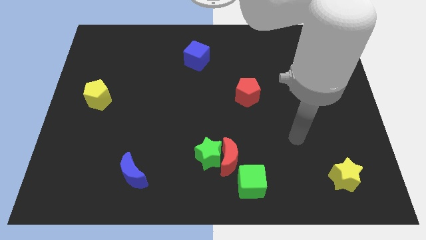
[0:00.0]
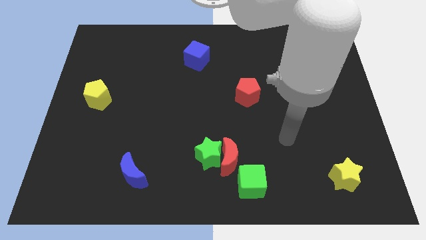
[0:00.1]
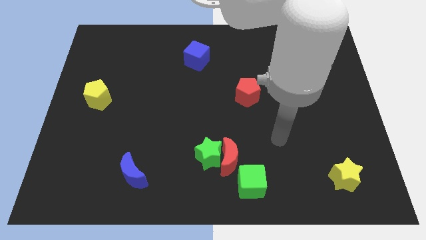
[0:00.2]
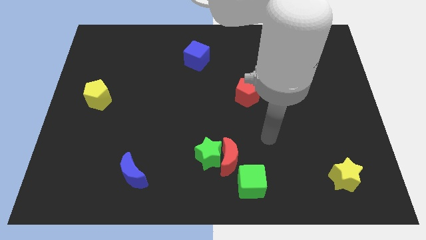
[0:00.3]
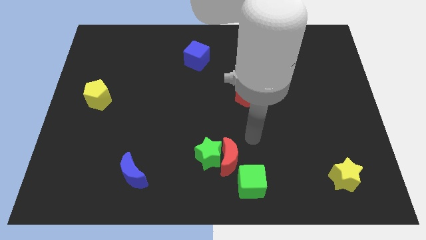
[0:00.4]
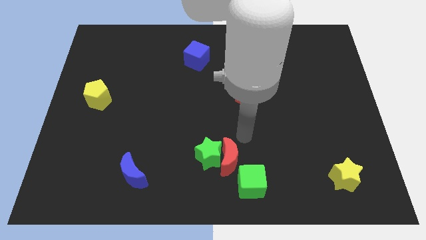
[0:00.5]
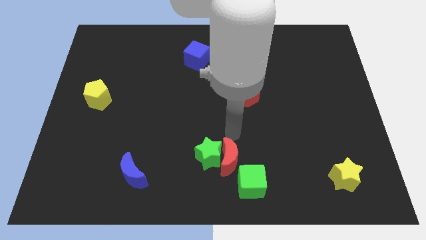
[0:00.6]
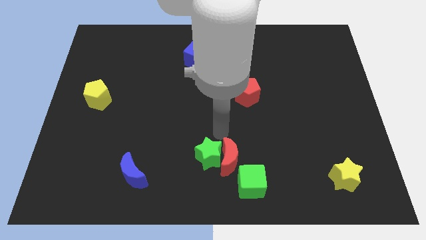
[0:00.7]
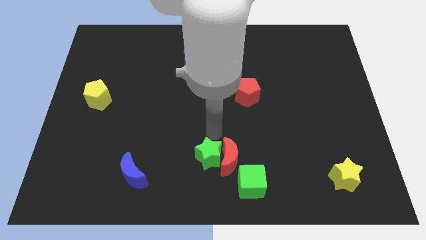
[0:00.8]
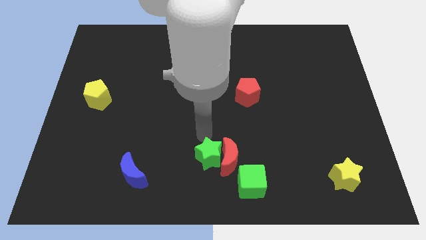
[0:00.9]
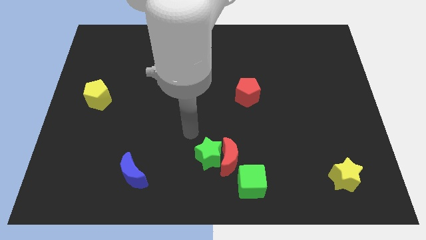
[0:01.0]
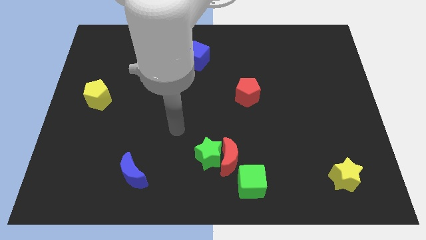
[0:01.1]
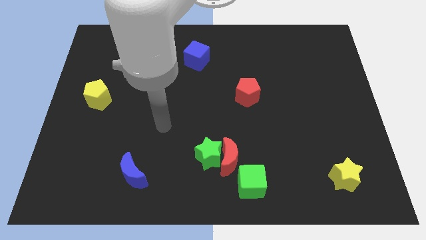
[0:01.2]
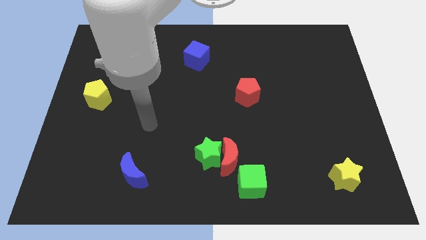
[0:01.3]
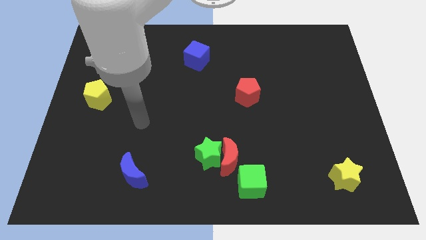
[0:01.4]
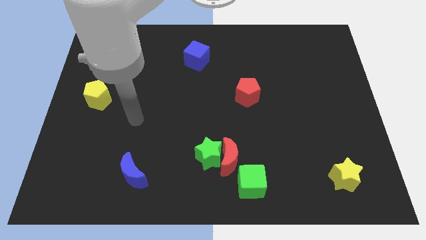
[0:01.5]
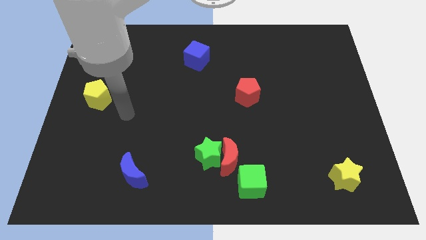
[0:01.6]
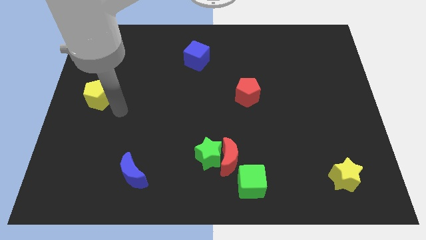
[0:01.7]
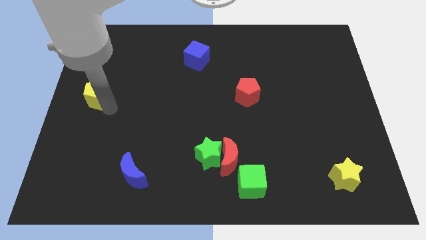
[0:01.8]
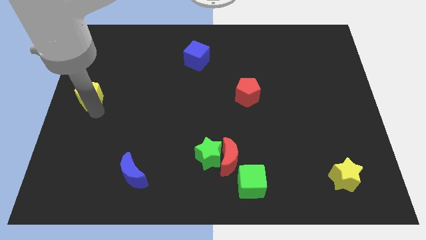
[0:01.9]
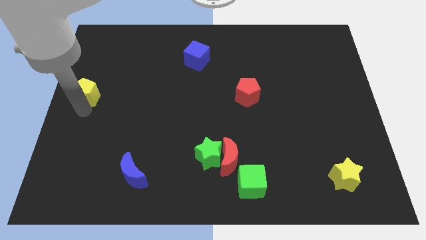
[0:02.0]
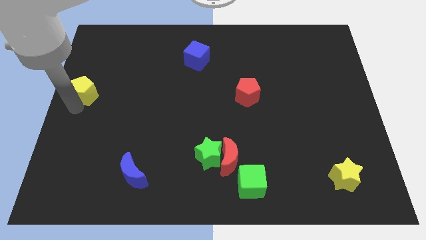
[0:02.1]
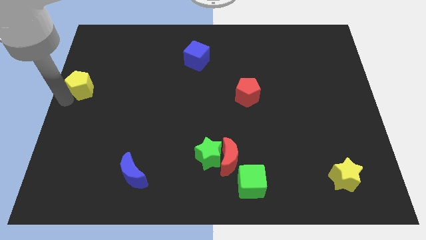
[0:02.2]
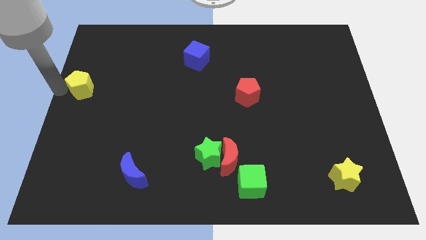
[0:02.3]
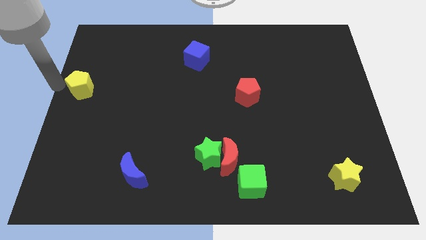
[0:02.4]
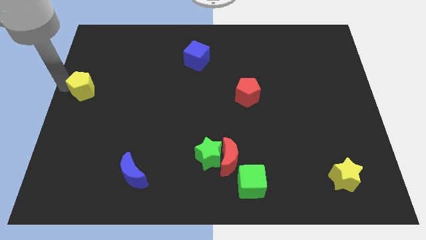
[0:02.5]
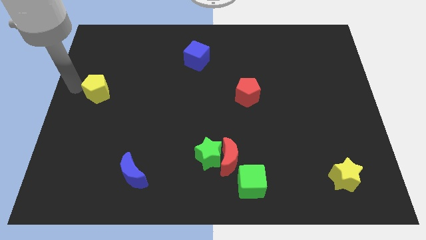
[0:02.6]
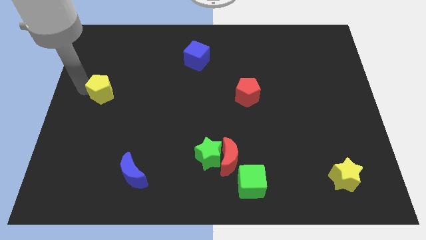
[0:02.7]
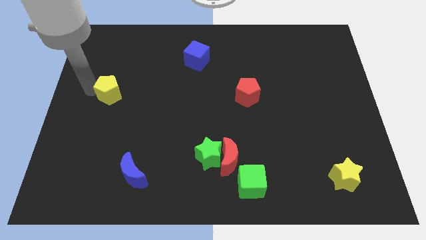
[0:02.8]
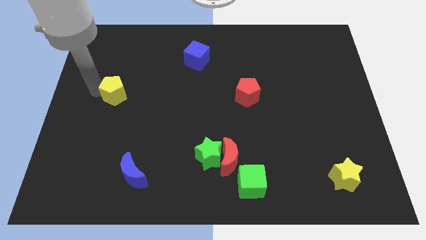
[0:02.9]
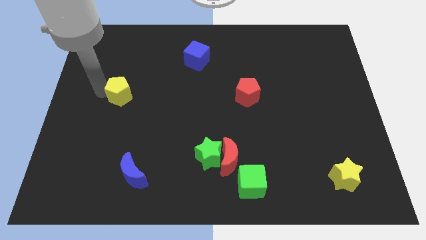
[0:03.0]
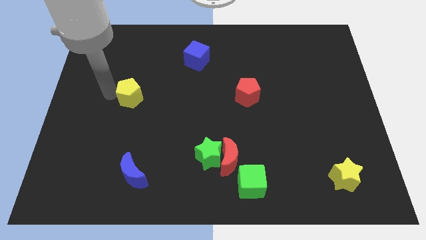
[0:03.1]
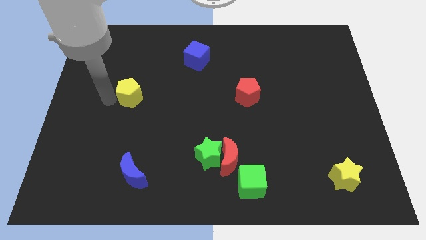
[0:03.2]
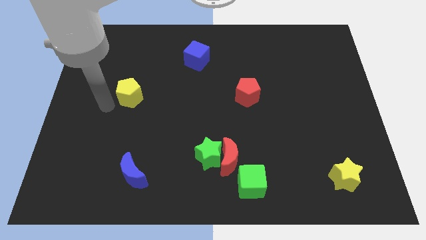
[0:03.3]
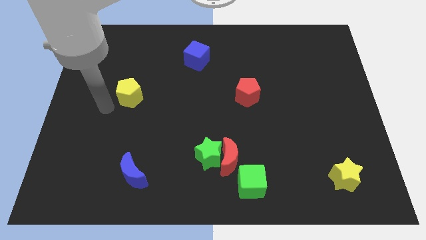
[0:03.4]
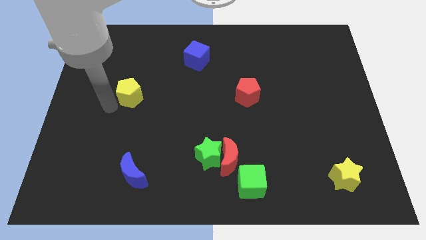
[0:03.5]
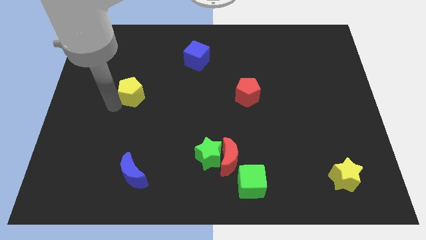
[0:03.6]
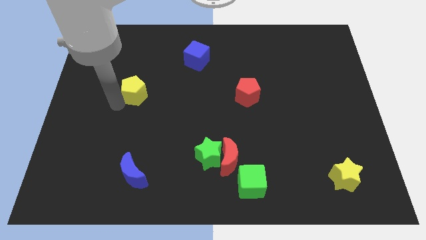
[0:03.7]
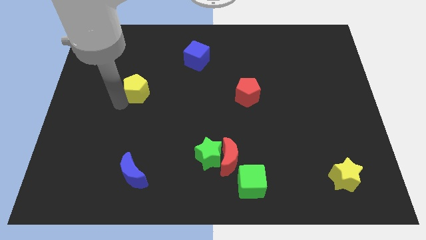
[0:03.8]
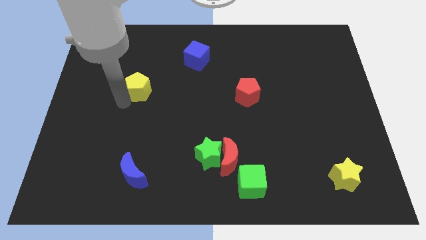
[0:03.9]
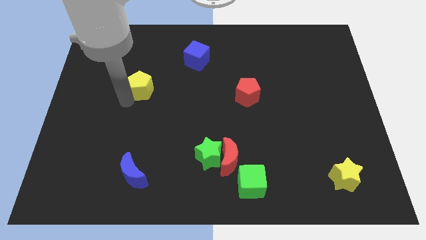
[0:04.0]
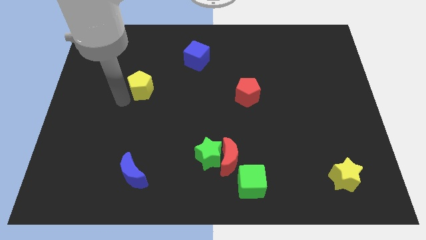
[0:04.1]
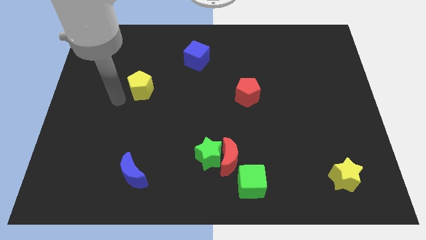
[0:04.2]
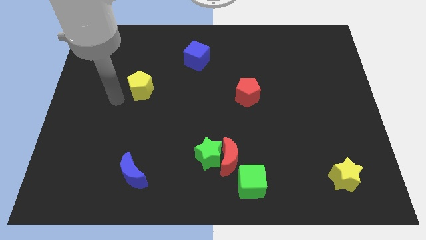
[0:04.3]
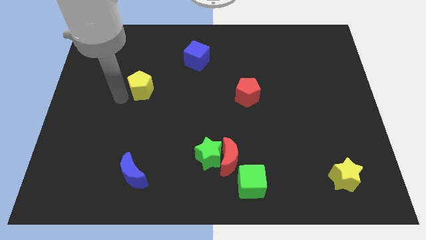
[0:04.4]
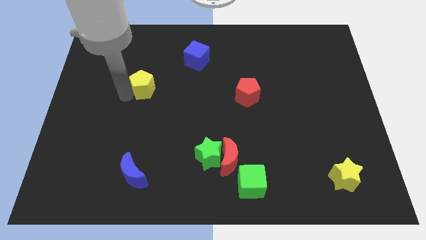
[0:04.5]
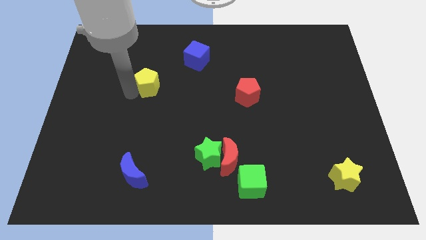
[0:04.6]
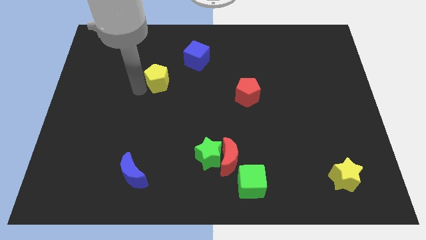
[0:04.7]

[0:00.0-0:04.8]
move the yellow pentagon to the bottom left side of the blue cube

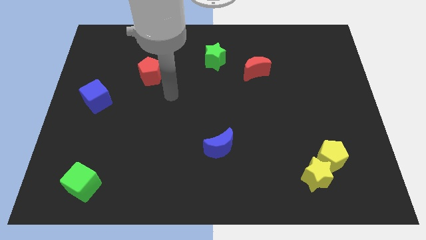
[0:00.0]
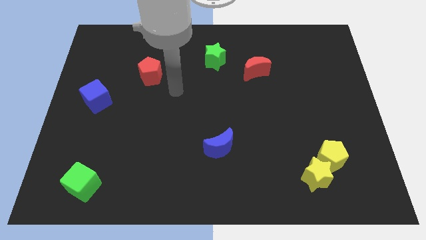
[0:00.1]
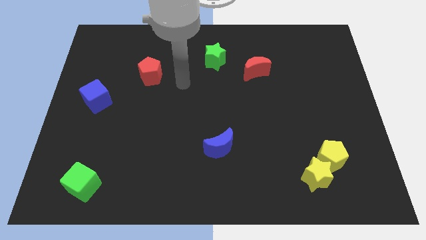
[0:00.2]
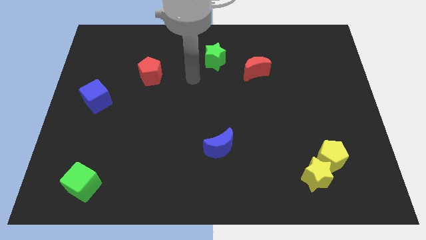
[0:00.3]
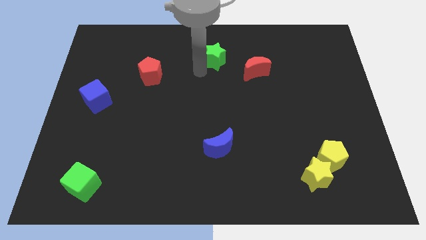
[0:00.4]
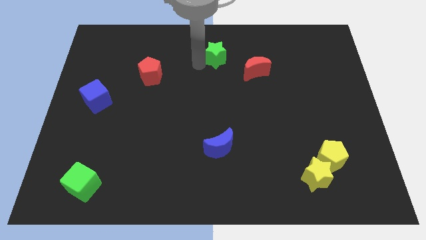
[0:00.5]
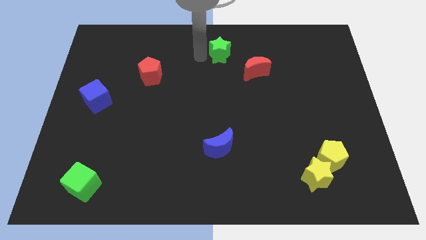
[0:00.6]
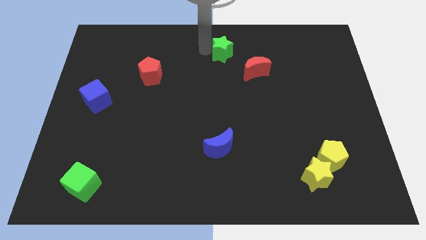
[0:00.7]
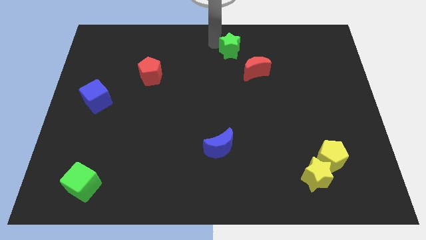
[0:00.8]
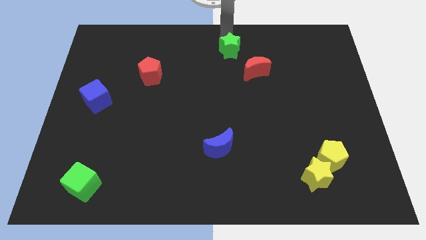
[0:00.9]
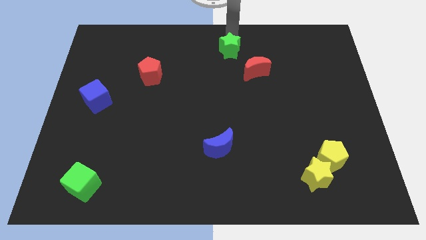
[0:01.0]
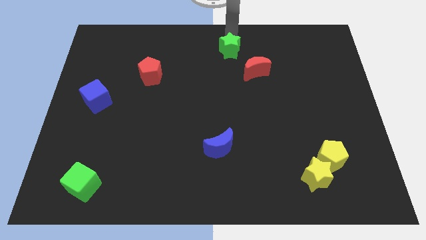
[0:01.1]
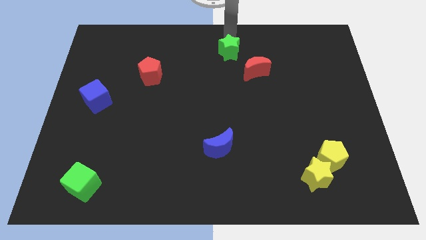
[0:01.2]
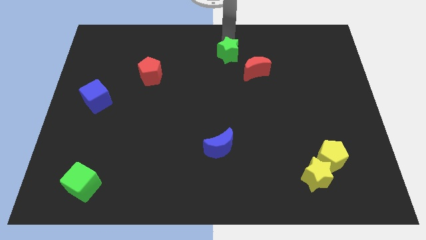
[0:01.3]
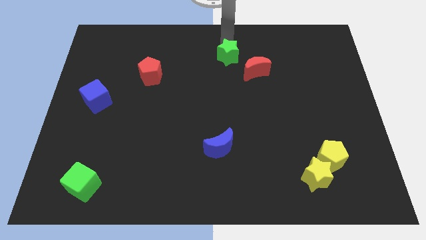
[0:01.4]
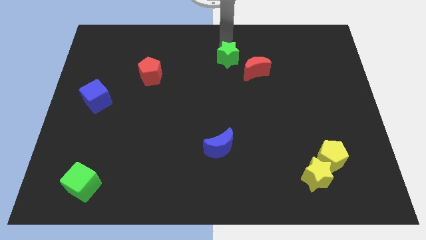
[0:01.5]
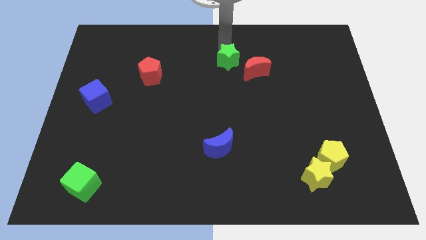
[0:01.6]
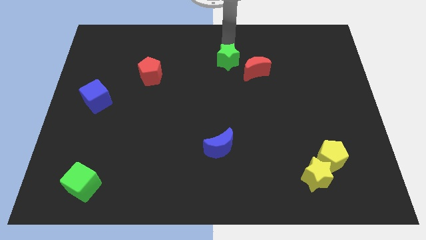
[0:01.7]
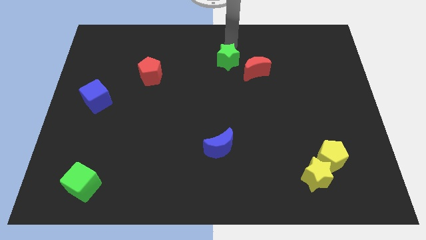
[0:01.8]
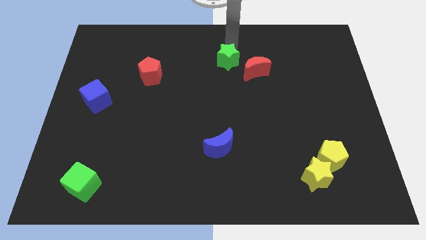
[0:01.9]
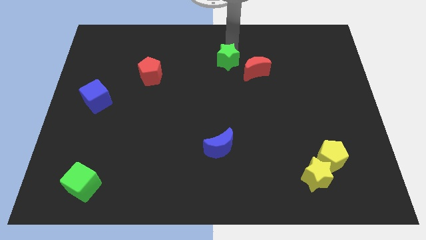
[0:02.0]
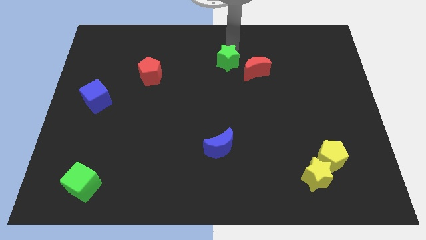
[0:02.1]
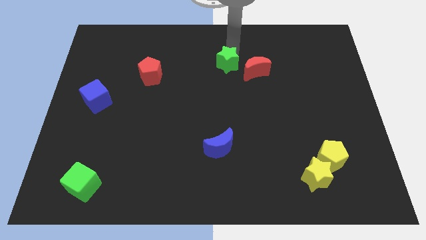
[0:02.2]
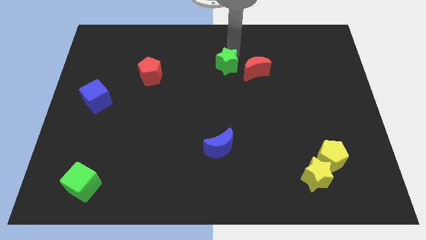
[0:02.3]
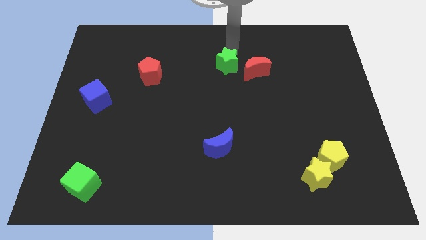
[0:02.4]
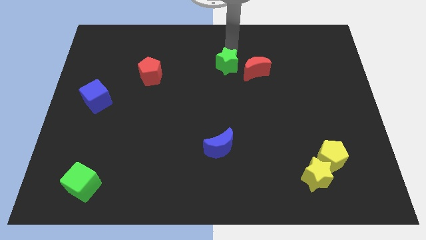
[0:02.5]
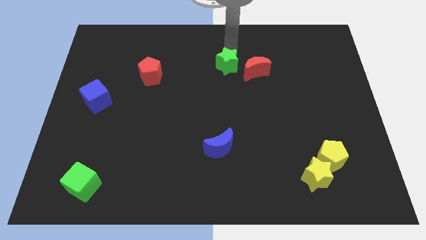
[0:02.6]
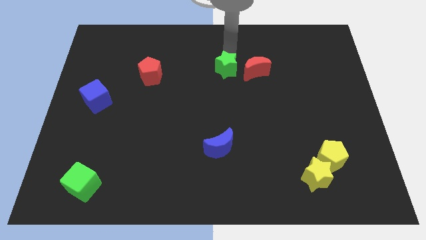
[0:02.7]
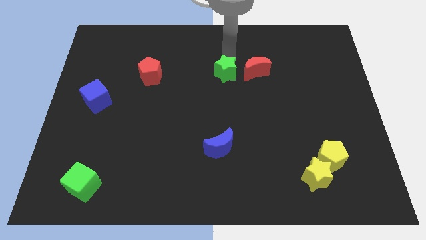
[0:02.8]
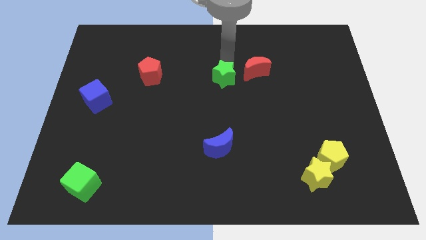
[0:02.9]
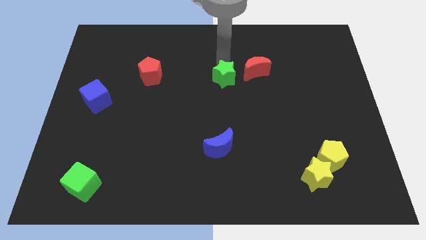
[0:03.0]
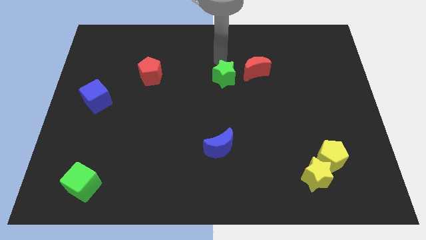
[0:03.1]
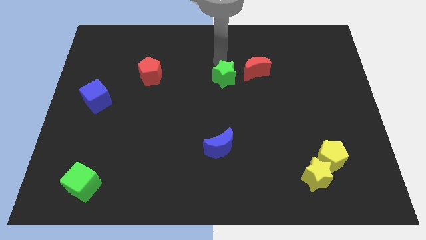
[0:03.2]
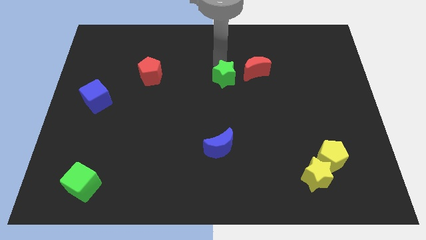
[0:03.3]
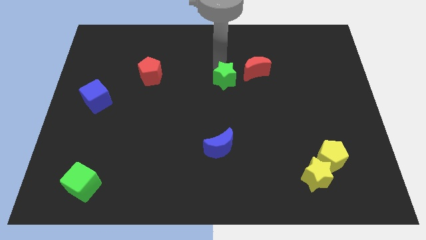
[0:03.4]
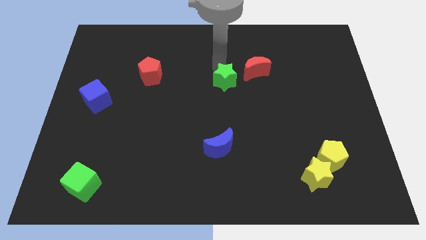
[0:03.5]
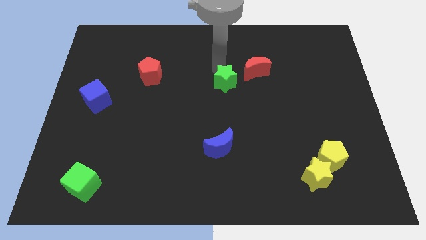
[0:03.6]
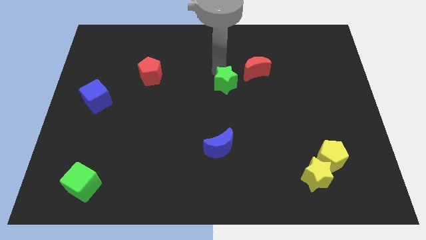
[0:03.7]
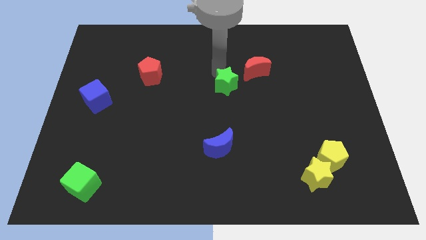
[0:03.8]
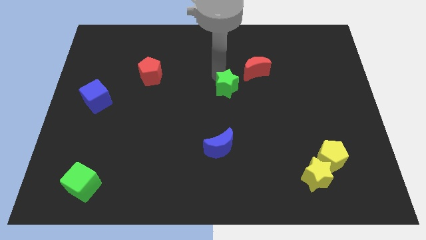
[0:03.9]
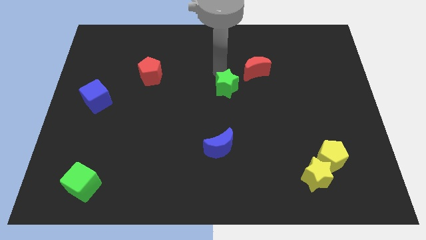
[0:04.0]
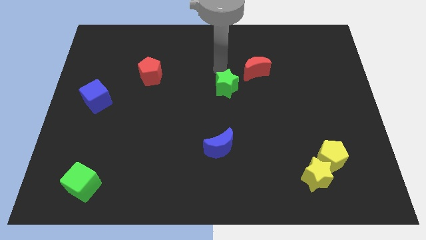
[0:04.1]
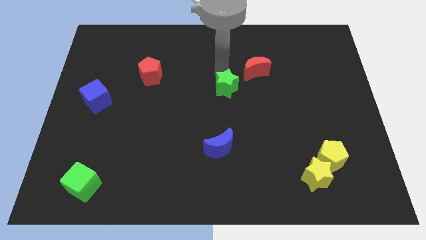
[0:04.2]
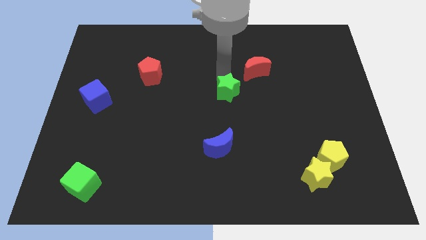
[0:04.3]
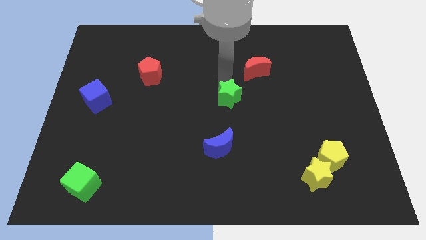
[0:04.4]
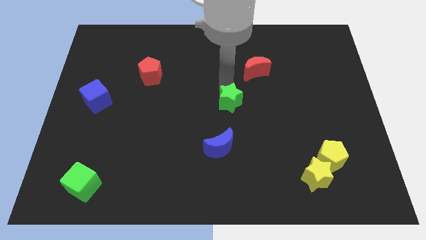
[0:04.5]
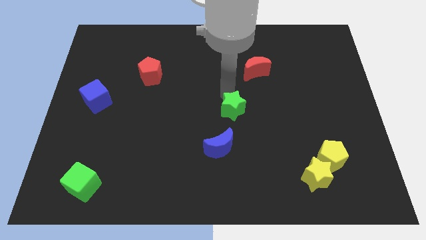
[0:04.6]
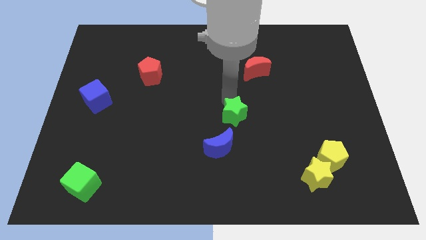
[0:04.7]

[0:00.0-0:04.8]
push the green star diagonally up and to the right of the blue moon
